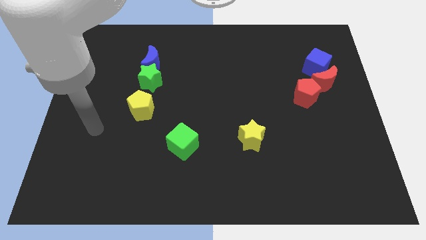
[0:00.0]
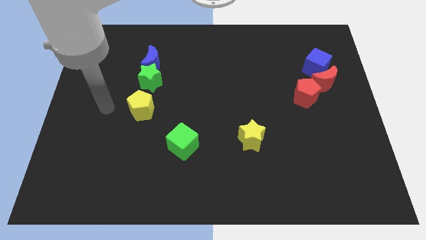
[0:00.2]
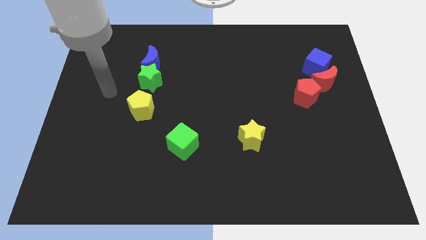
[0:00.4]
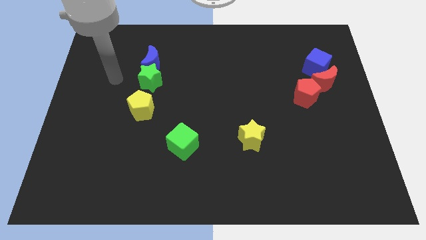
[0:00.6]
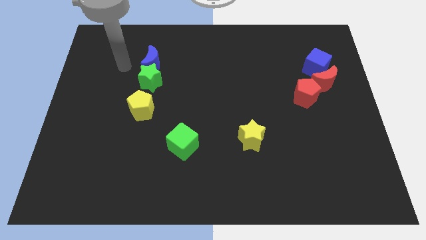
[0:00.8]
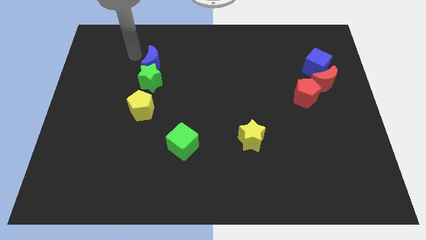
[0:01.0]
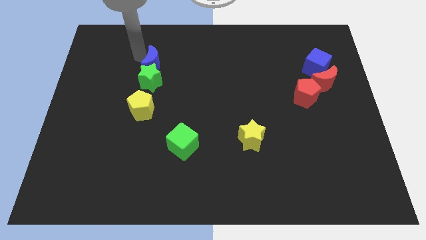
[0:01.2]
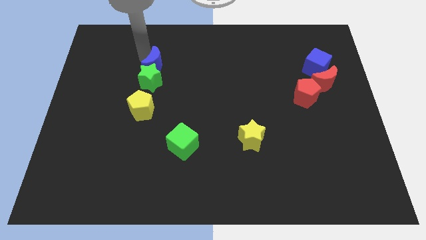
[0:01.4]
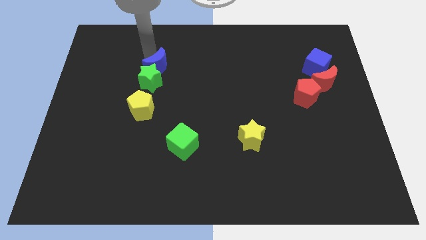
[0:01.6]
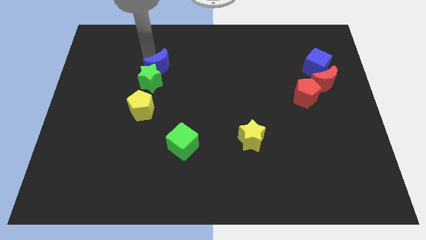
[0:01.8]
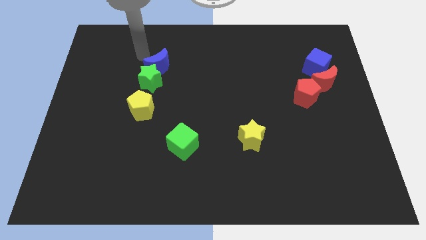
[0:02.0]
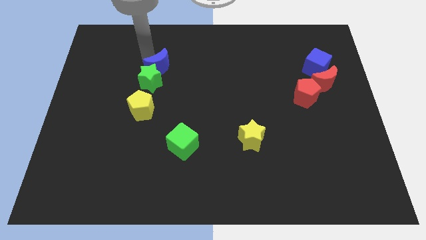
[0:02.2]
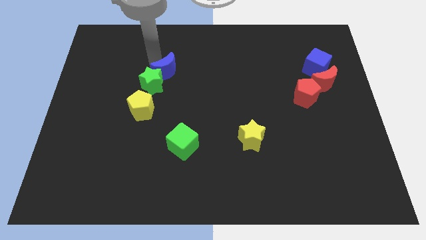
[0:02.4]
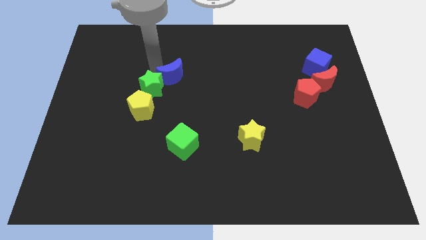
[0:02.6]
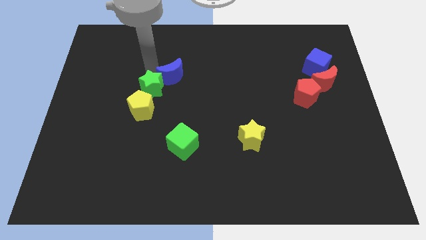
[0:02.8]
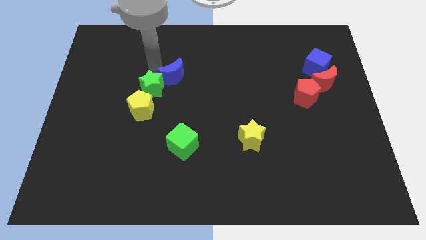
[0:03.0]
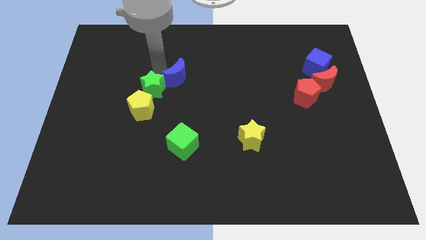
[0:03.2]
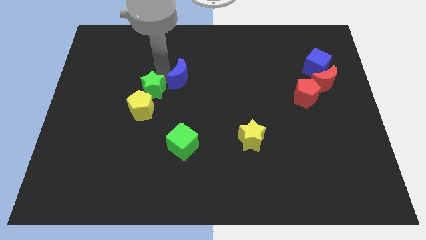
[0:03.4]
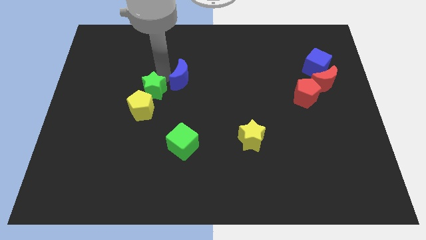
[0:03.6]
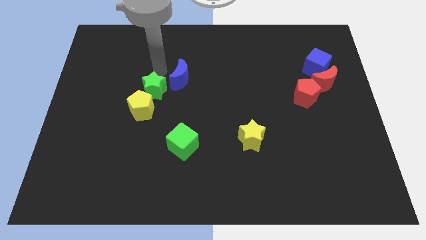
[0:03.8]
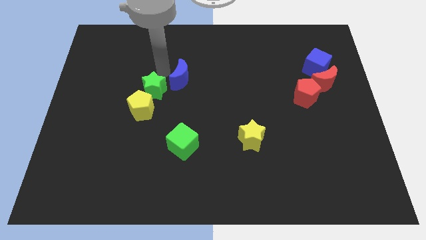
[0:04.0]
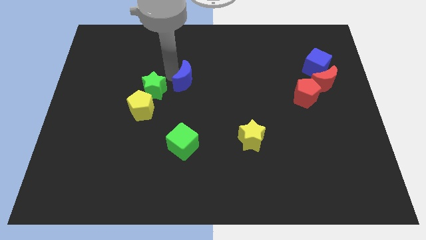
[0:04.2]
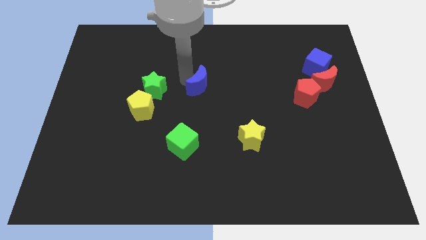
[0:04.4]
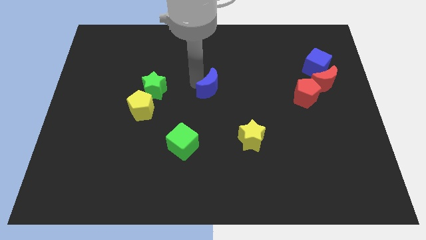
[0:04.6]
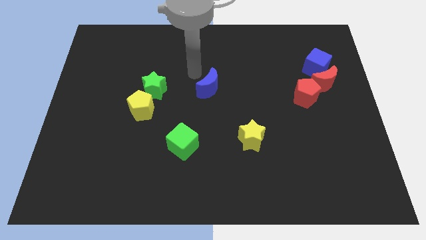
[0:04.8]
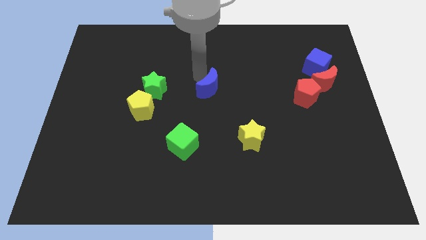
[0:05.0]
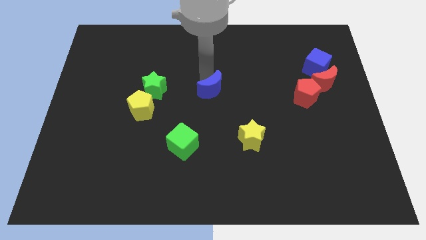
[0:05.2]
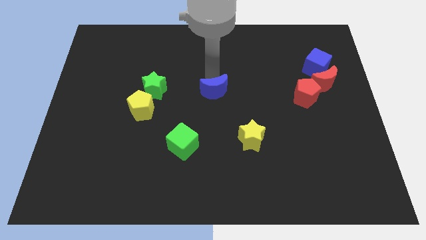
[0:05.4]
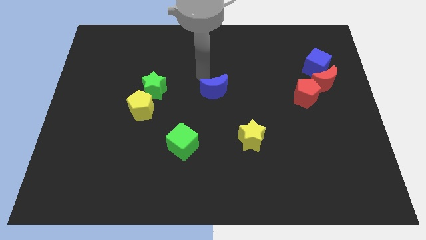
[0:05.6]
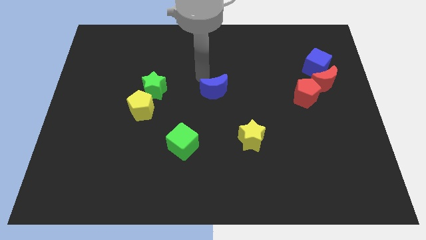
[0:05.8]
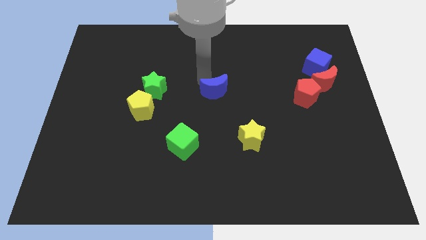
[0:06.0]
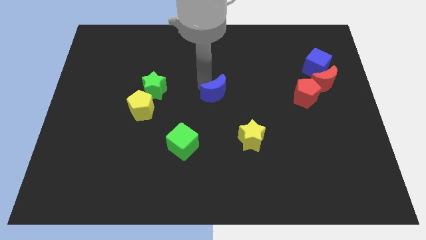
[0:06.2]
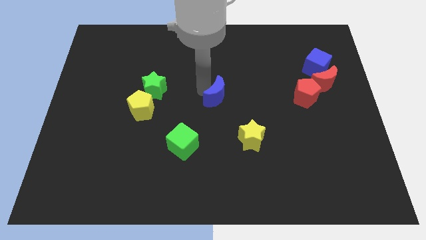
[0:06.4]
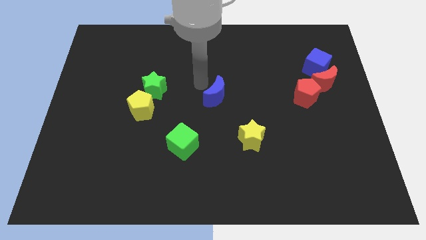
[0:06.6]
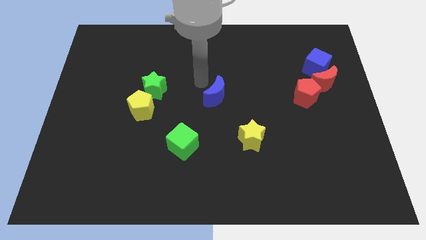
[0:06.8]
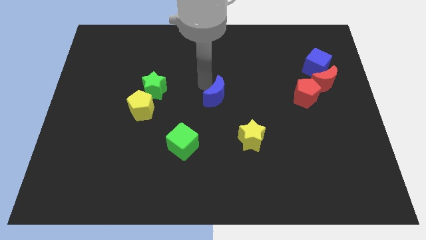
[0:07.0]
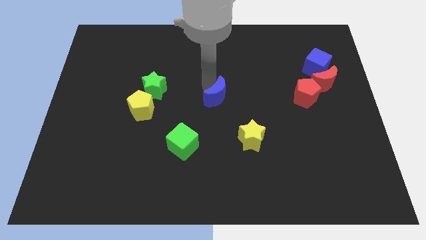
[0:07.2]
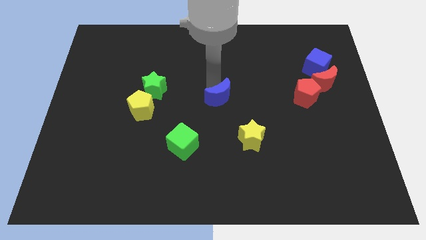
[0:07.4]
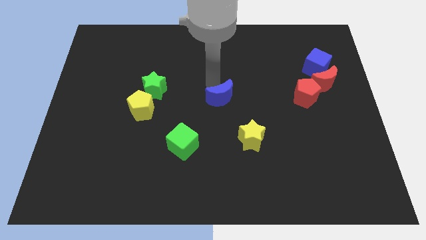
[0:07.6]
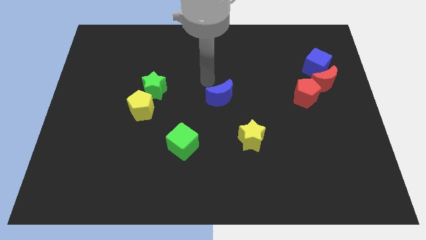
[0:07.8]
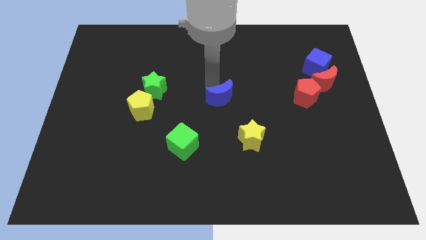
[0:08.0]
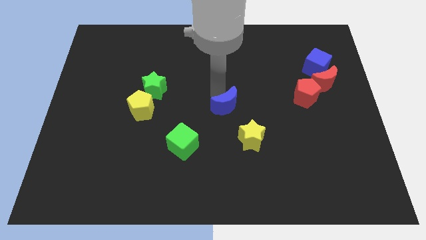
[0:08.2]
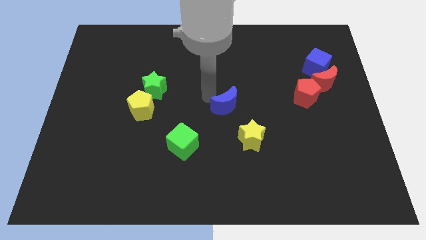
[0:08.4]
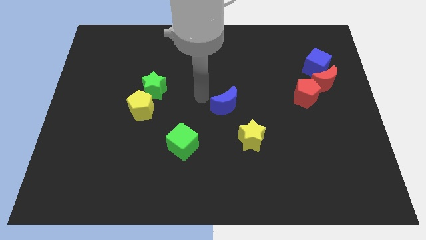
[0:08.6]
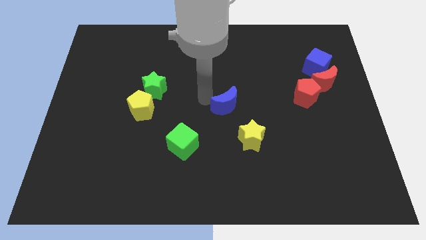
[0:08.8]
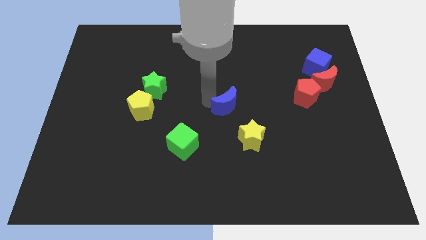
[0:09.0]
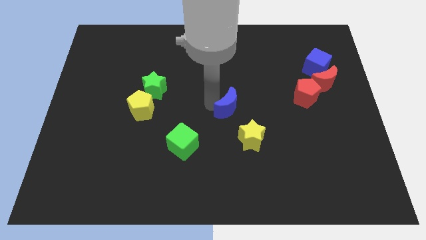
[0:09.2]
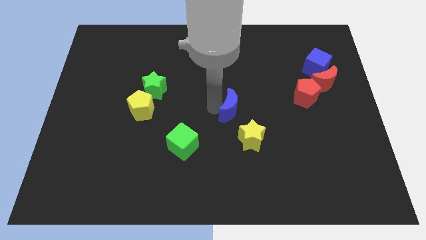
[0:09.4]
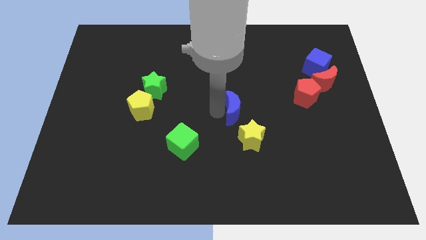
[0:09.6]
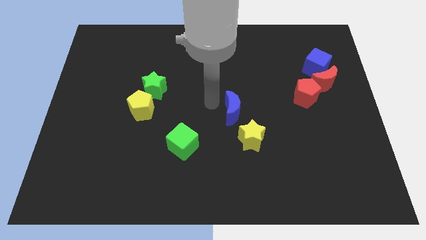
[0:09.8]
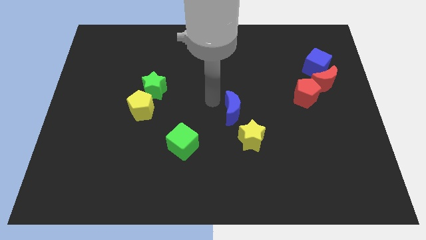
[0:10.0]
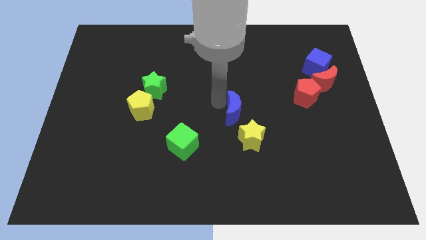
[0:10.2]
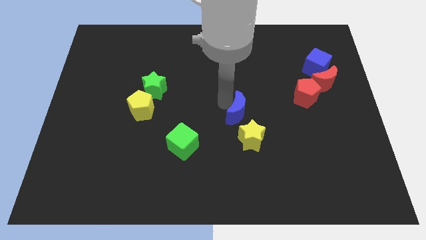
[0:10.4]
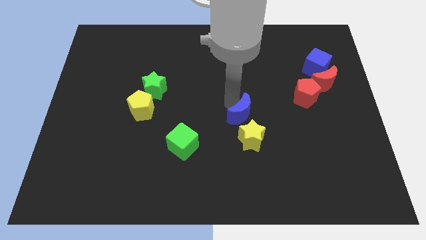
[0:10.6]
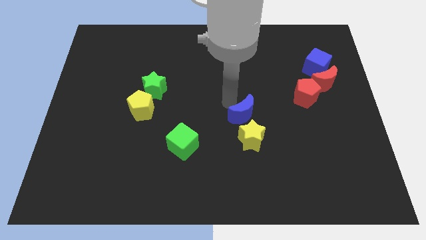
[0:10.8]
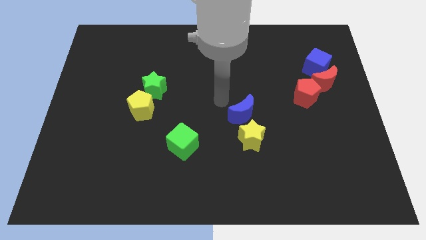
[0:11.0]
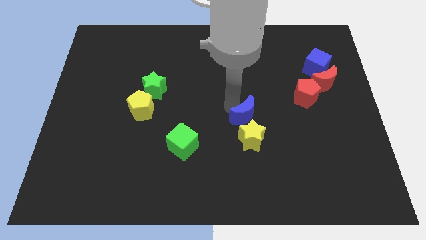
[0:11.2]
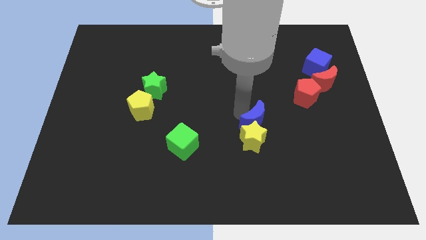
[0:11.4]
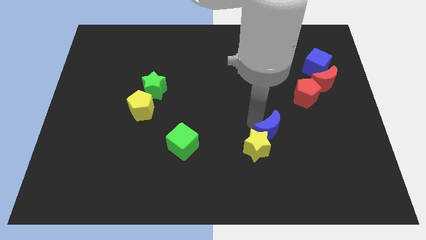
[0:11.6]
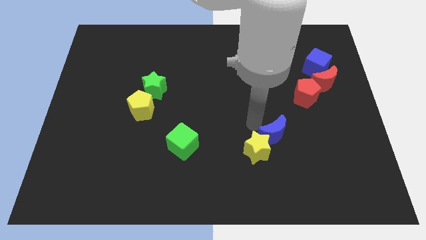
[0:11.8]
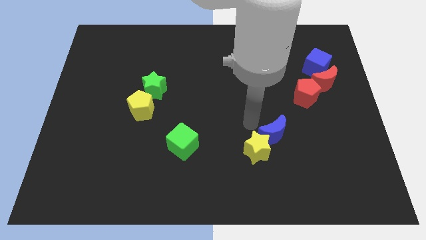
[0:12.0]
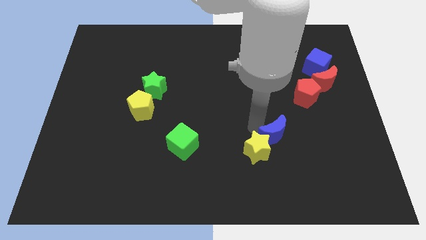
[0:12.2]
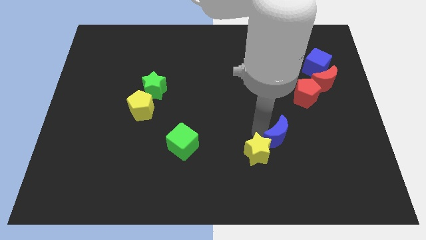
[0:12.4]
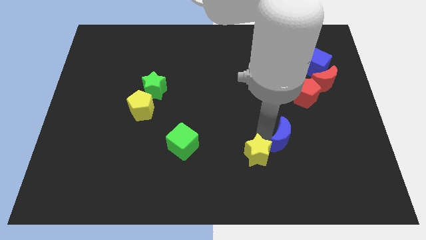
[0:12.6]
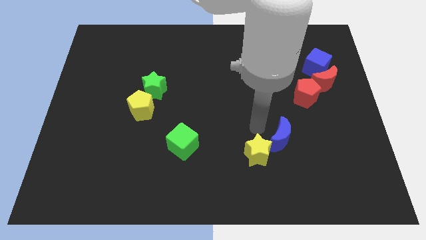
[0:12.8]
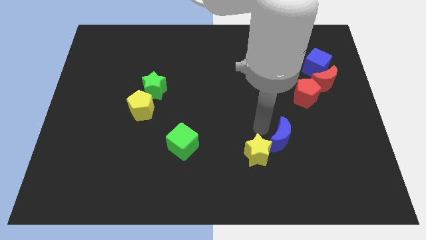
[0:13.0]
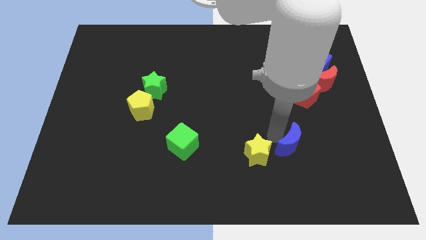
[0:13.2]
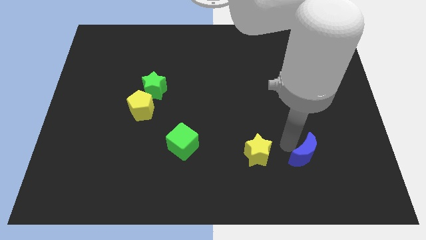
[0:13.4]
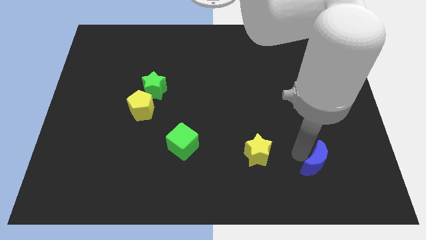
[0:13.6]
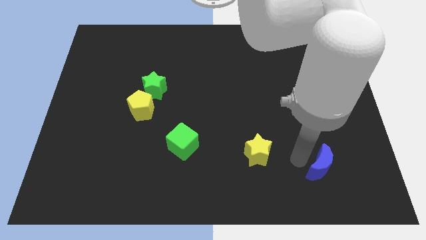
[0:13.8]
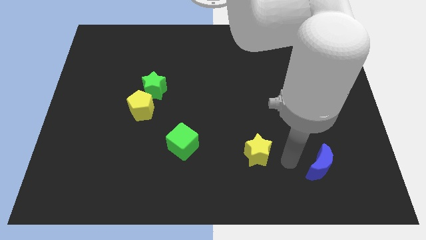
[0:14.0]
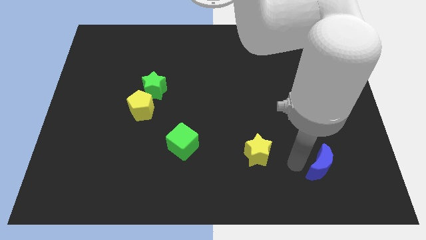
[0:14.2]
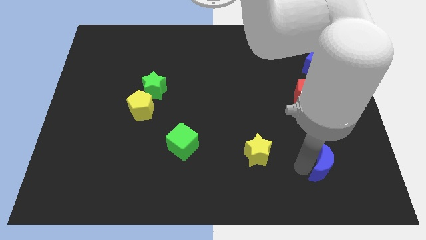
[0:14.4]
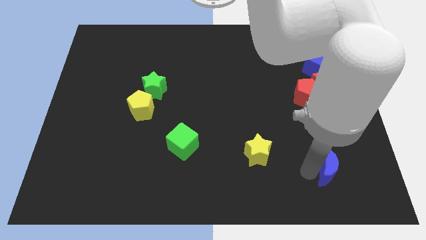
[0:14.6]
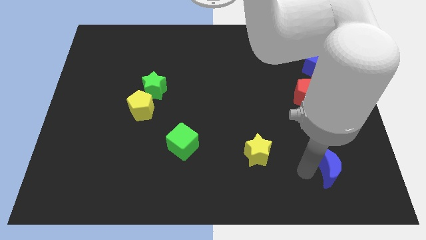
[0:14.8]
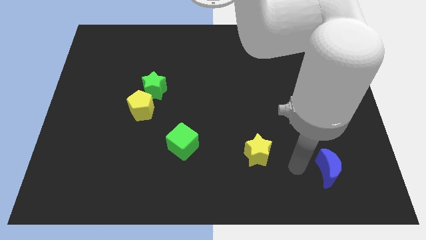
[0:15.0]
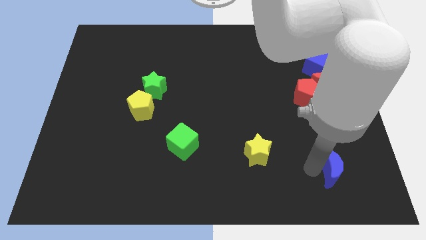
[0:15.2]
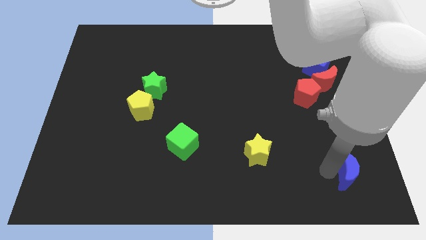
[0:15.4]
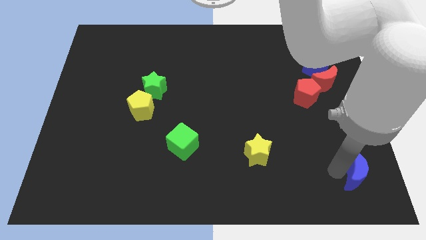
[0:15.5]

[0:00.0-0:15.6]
move the blue moon to the bottom right of the board
